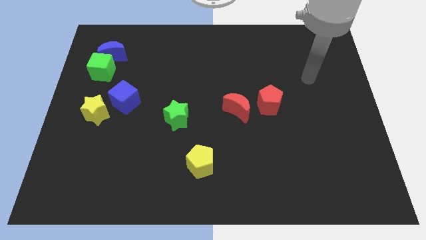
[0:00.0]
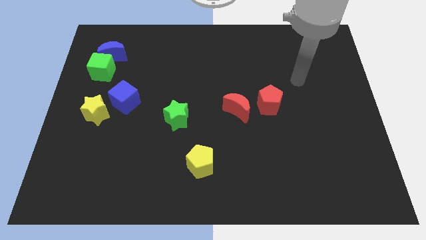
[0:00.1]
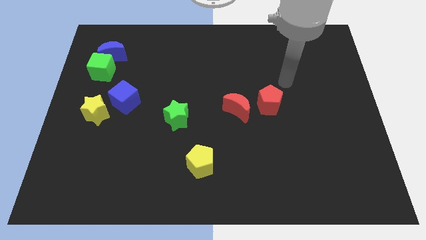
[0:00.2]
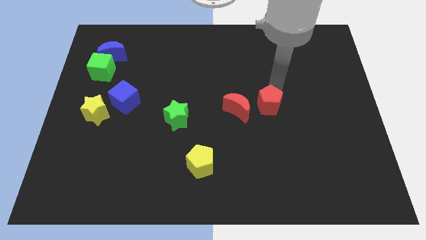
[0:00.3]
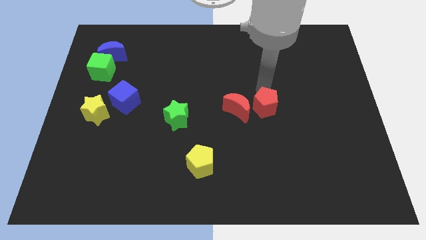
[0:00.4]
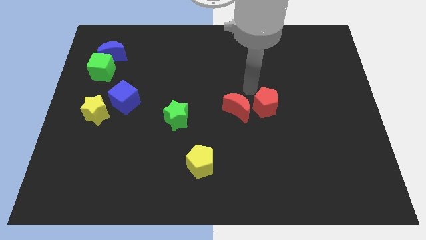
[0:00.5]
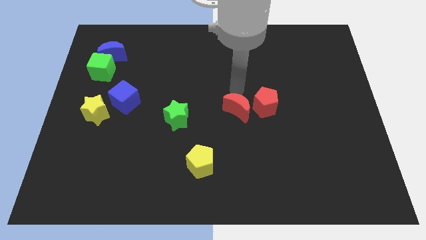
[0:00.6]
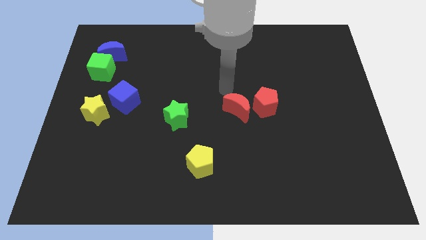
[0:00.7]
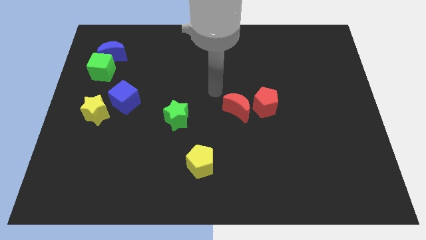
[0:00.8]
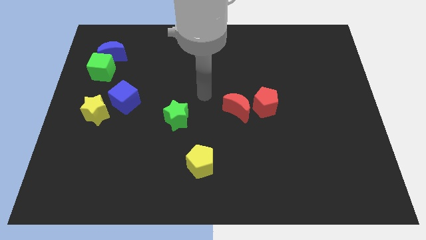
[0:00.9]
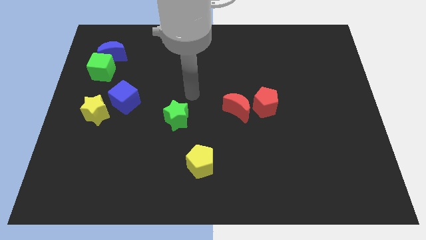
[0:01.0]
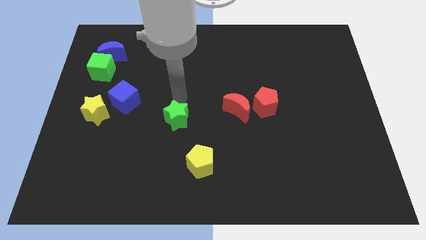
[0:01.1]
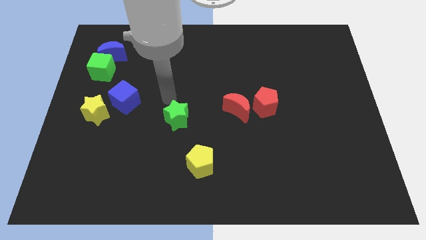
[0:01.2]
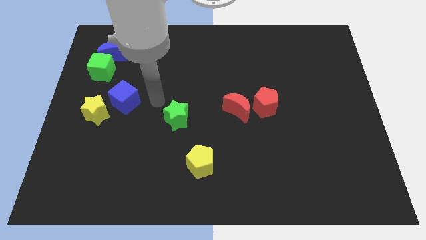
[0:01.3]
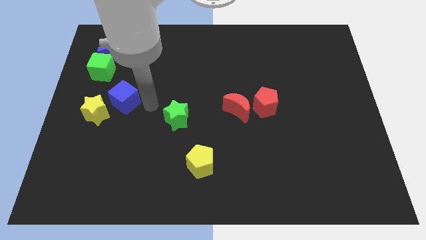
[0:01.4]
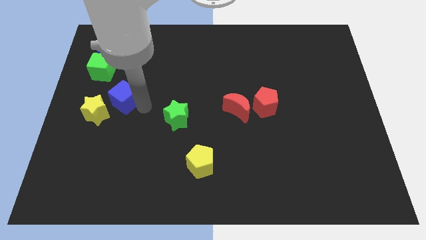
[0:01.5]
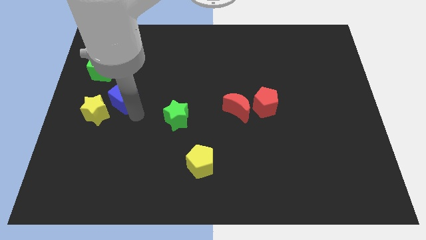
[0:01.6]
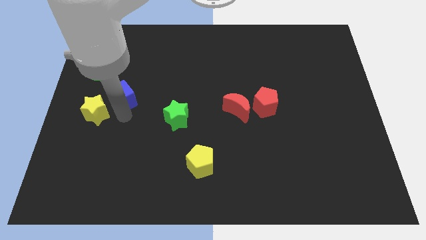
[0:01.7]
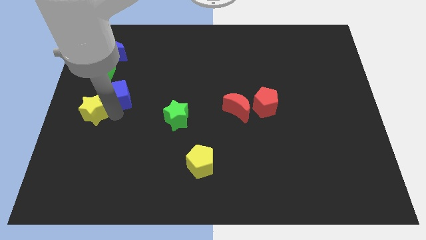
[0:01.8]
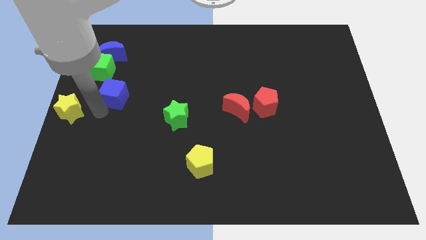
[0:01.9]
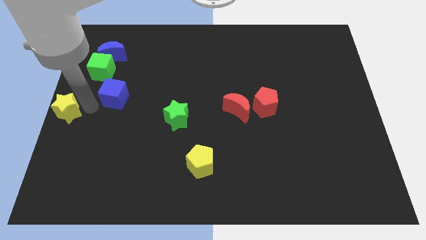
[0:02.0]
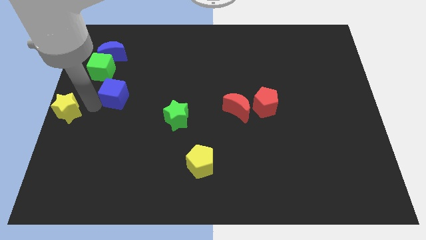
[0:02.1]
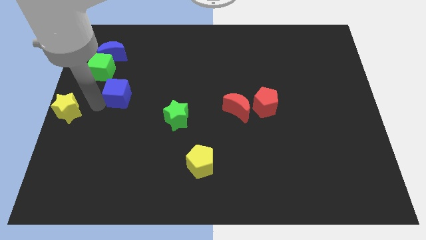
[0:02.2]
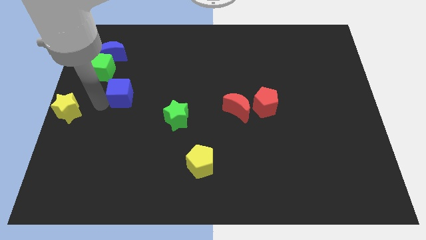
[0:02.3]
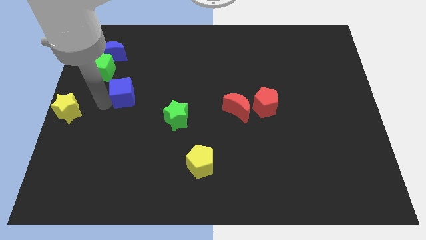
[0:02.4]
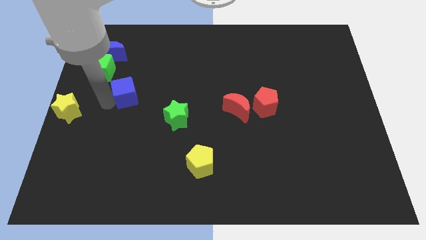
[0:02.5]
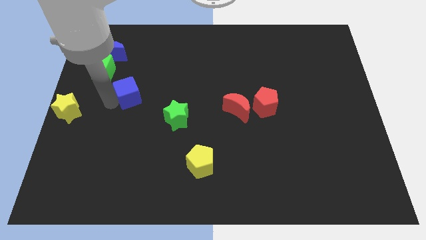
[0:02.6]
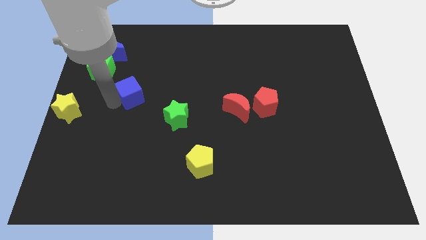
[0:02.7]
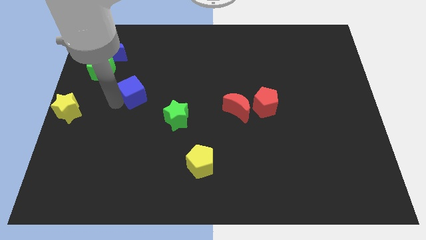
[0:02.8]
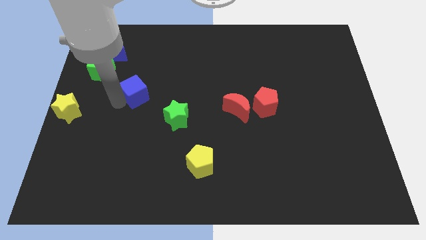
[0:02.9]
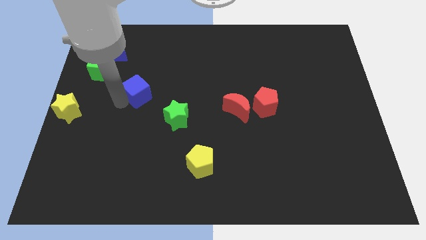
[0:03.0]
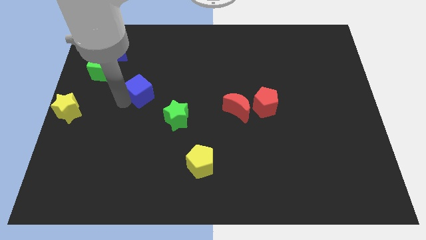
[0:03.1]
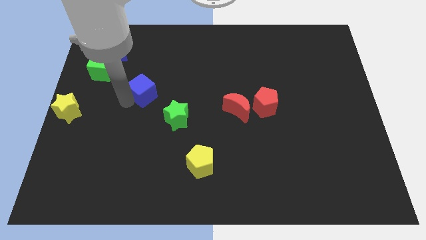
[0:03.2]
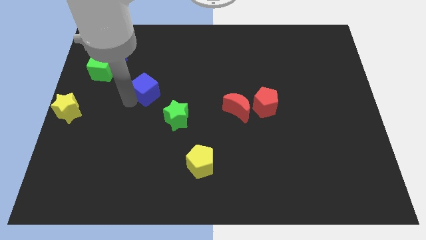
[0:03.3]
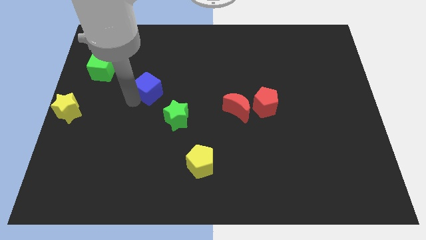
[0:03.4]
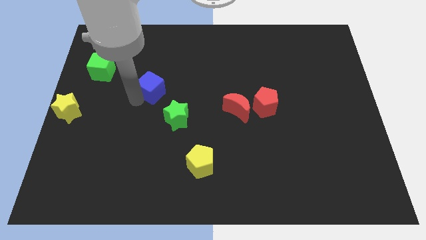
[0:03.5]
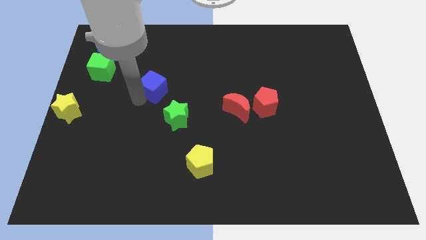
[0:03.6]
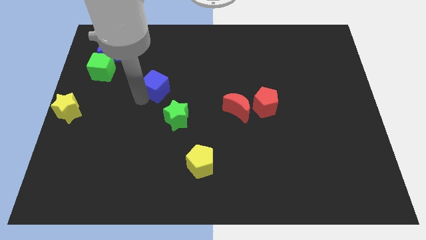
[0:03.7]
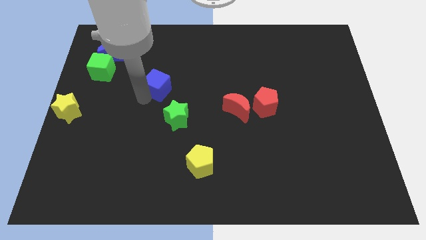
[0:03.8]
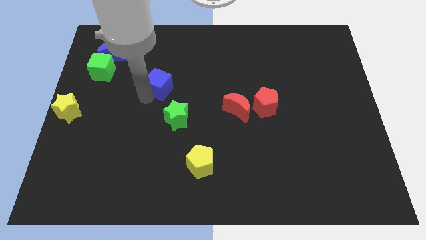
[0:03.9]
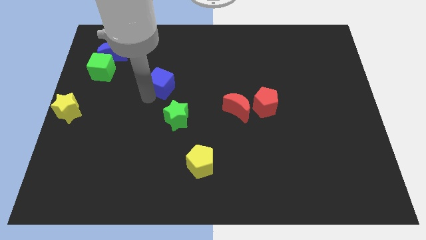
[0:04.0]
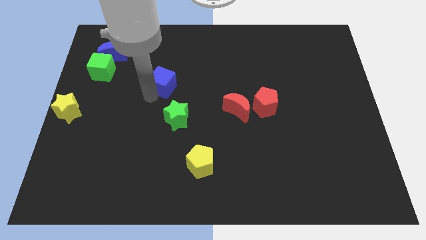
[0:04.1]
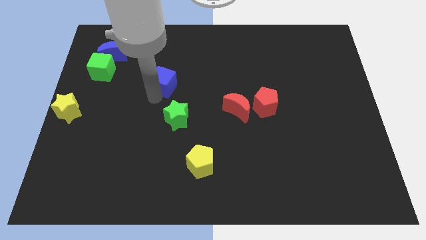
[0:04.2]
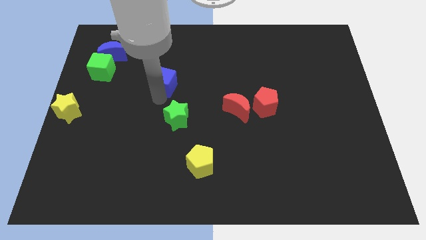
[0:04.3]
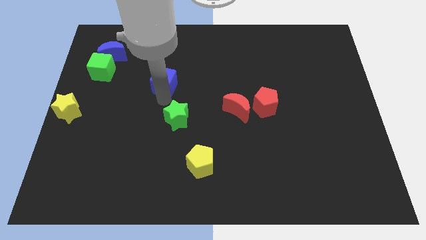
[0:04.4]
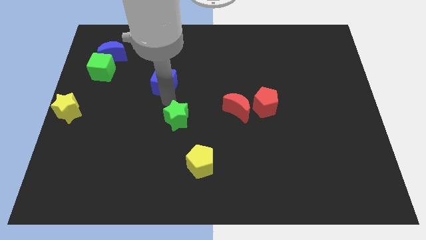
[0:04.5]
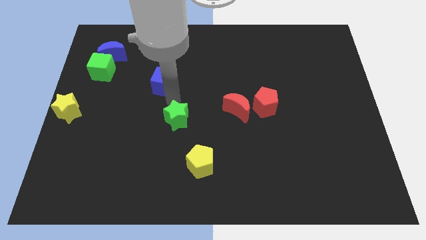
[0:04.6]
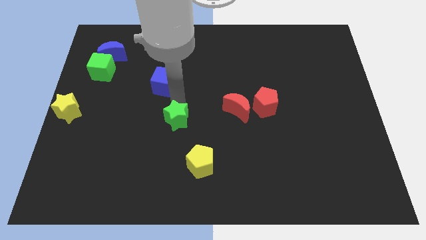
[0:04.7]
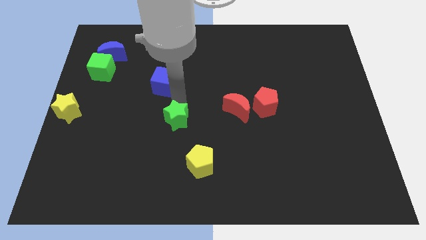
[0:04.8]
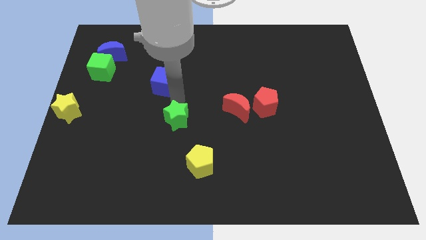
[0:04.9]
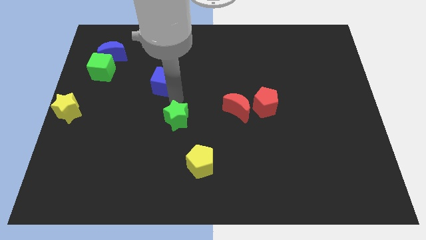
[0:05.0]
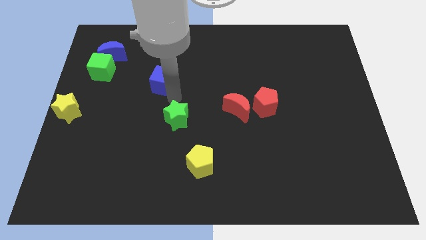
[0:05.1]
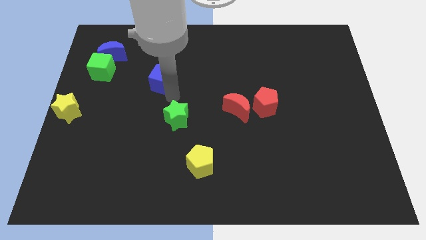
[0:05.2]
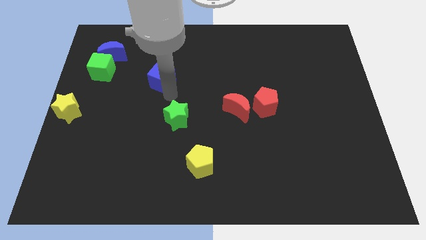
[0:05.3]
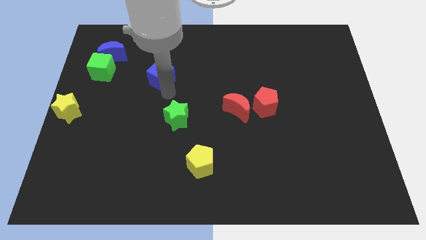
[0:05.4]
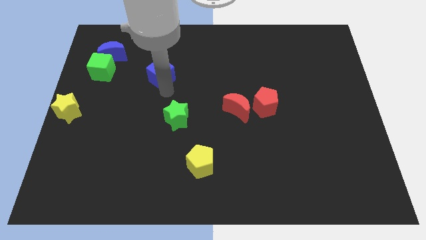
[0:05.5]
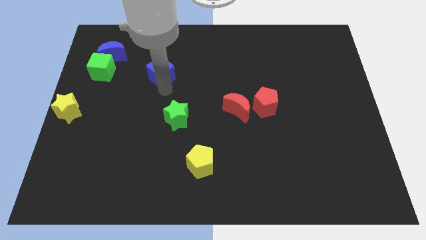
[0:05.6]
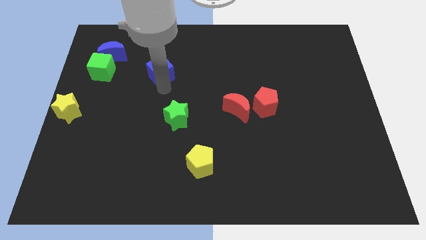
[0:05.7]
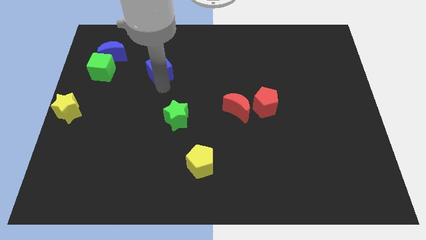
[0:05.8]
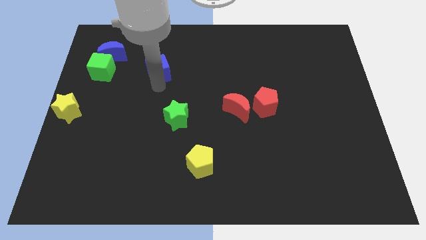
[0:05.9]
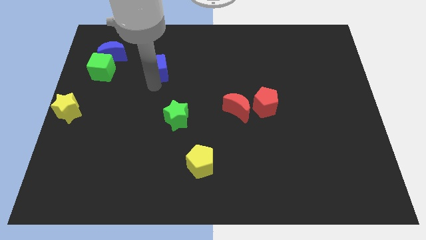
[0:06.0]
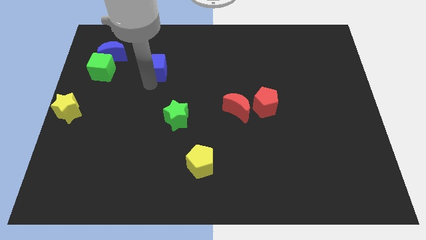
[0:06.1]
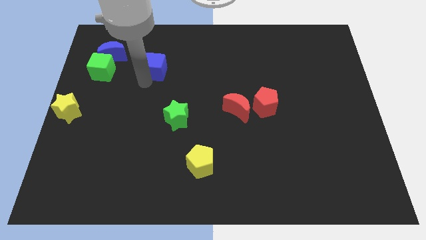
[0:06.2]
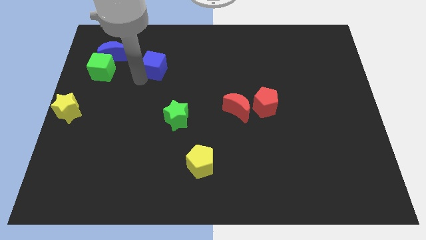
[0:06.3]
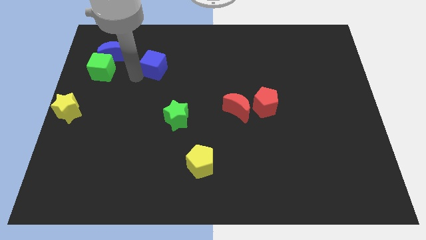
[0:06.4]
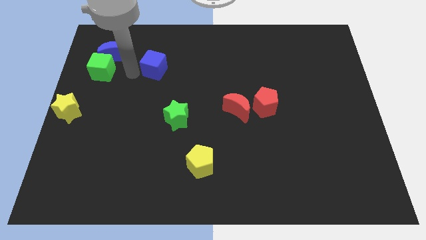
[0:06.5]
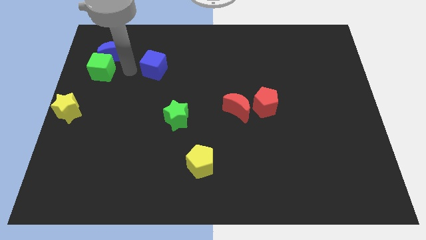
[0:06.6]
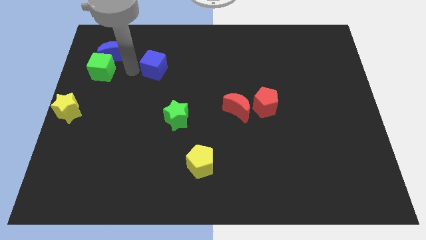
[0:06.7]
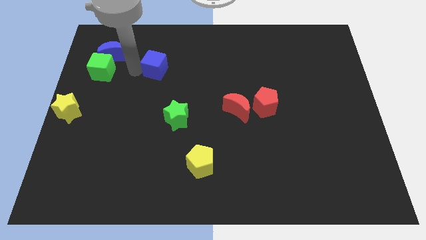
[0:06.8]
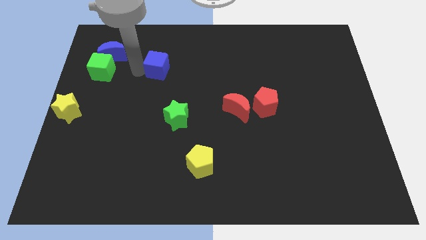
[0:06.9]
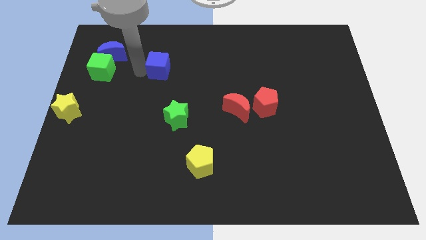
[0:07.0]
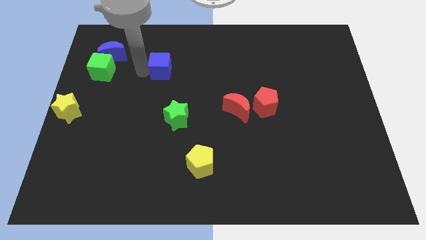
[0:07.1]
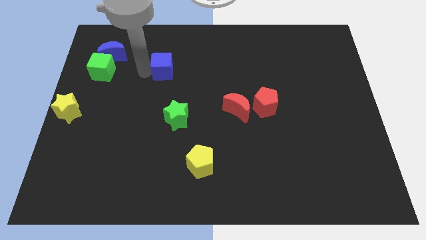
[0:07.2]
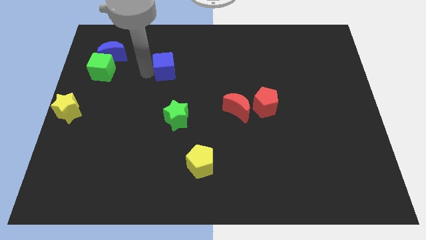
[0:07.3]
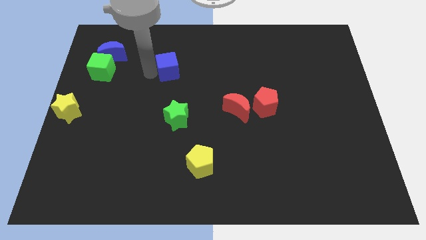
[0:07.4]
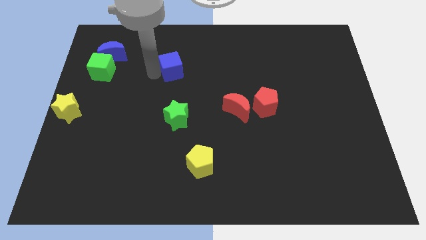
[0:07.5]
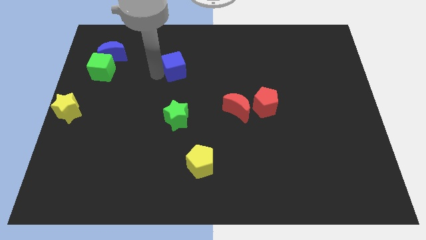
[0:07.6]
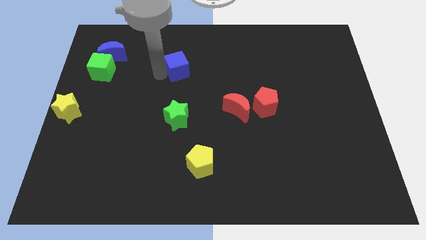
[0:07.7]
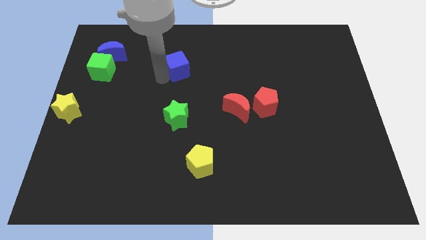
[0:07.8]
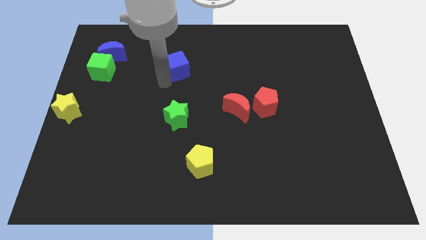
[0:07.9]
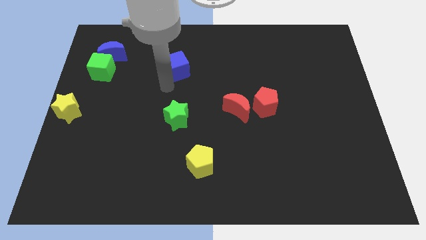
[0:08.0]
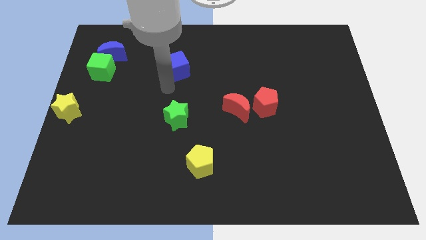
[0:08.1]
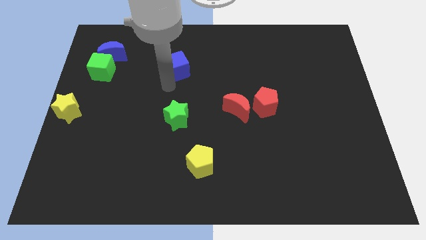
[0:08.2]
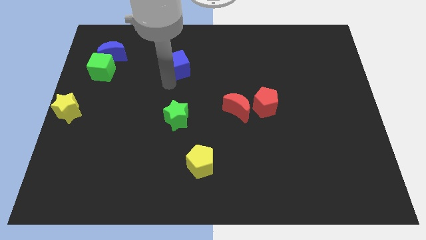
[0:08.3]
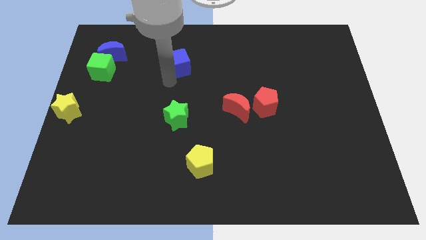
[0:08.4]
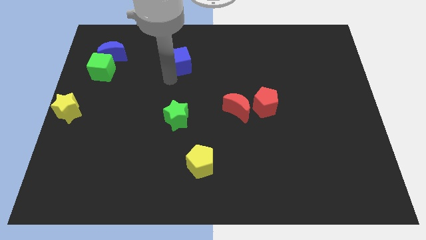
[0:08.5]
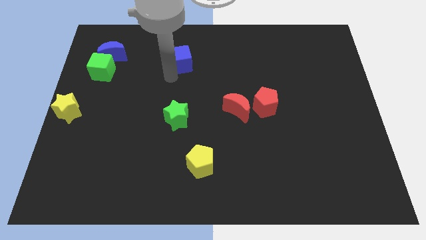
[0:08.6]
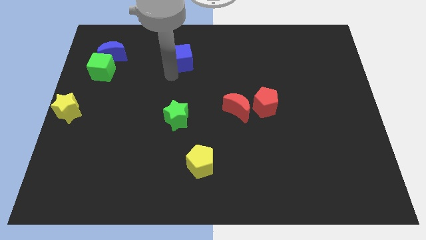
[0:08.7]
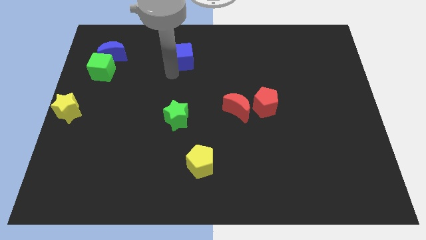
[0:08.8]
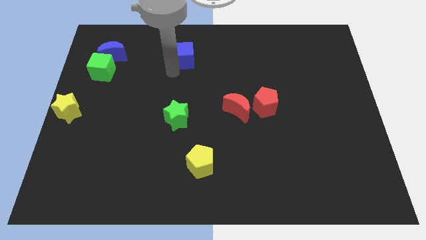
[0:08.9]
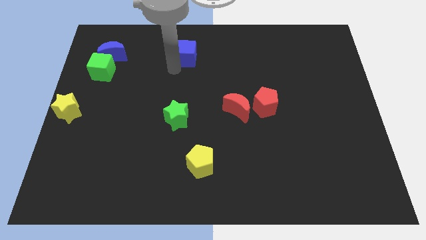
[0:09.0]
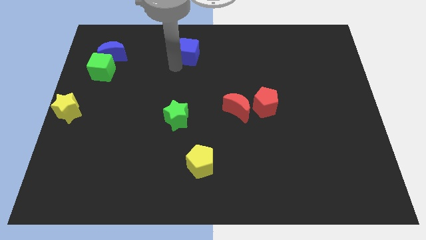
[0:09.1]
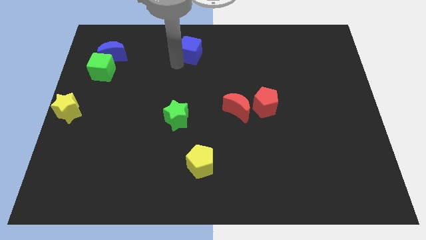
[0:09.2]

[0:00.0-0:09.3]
slide the blue cube to the top
